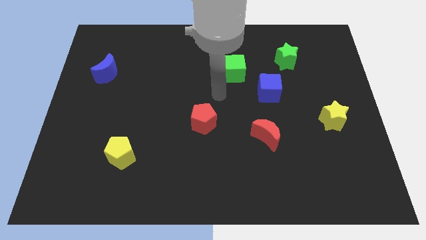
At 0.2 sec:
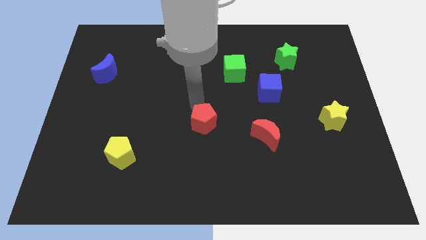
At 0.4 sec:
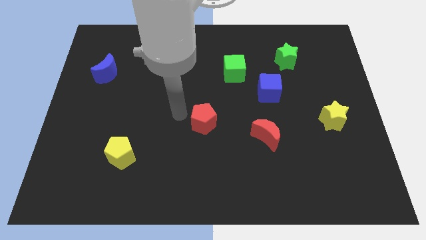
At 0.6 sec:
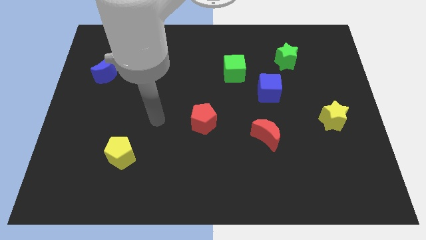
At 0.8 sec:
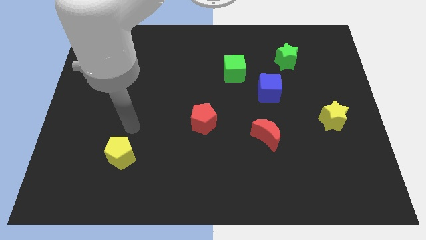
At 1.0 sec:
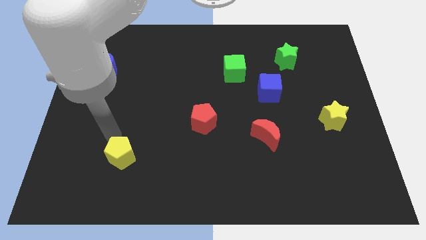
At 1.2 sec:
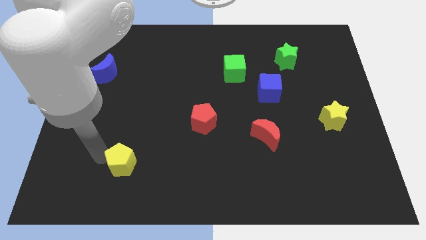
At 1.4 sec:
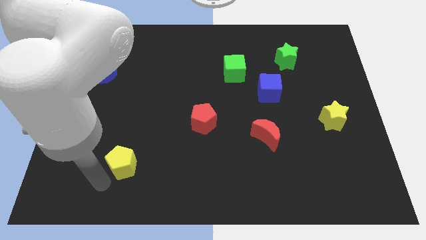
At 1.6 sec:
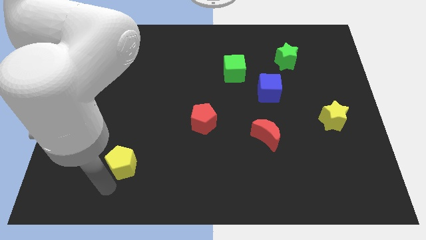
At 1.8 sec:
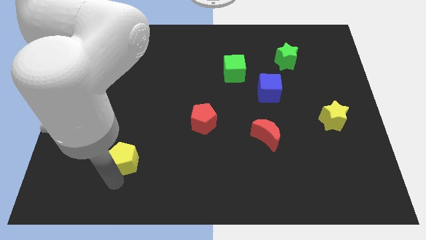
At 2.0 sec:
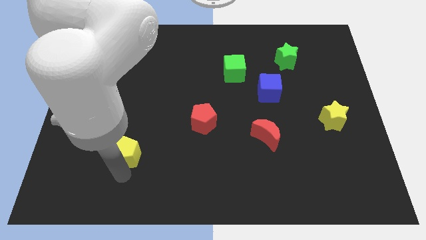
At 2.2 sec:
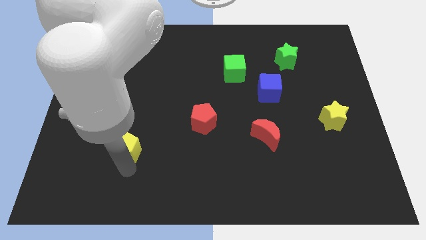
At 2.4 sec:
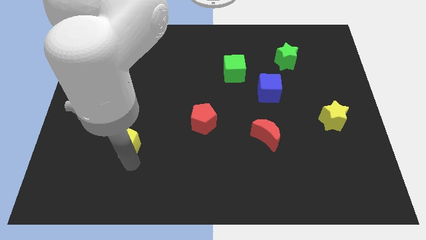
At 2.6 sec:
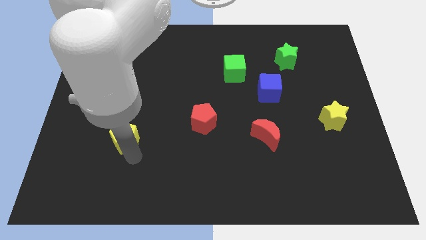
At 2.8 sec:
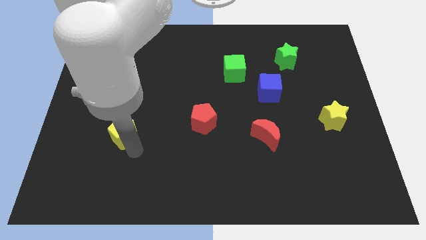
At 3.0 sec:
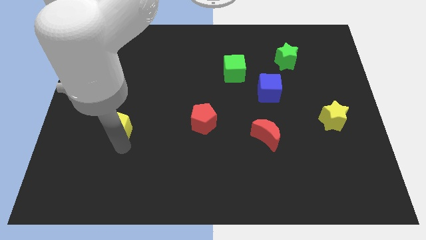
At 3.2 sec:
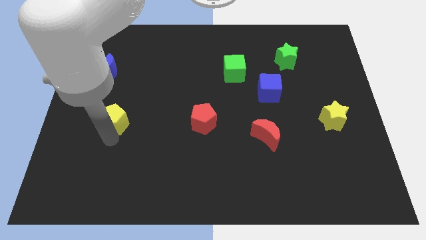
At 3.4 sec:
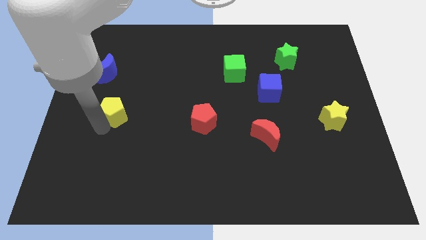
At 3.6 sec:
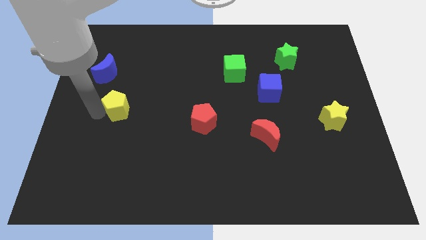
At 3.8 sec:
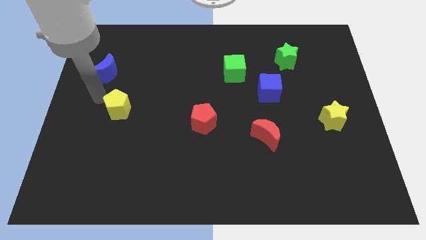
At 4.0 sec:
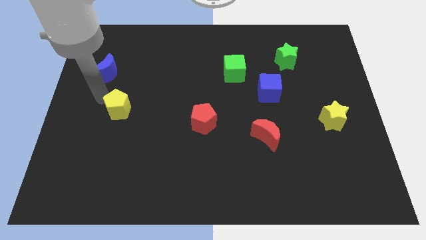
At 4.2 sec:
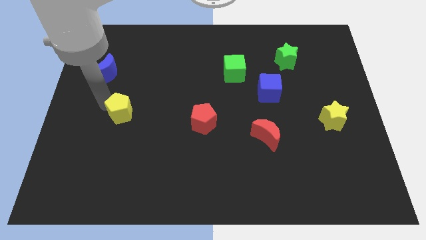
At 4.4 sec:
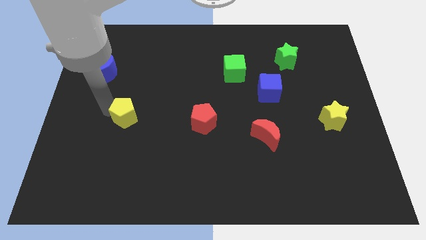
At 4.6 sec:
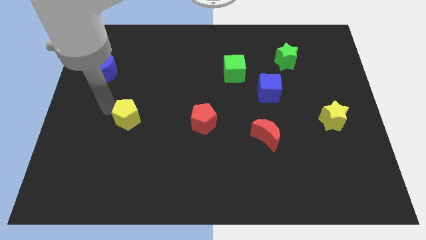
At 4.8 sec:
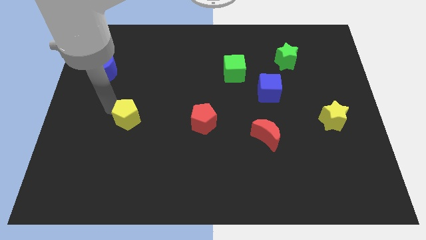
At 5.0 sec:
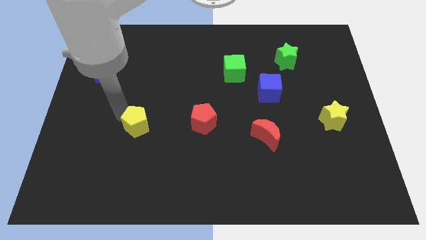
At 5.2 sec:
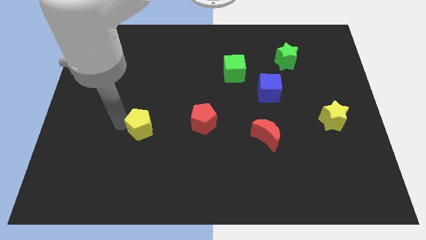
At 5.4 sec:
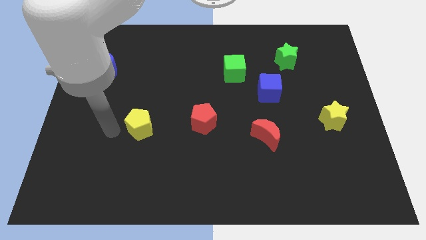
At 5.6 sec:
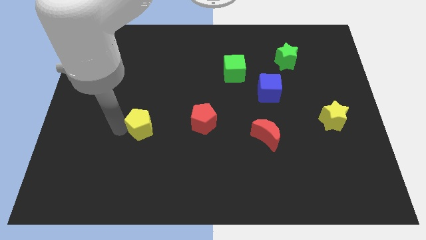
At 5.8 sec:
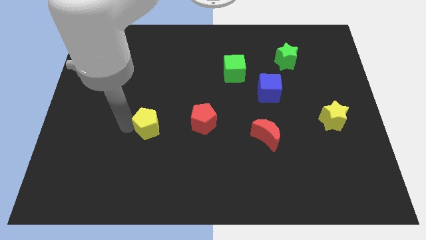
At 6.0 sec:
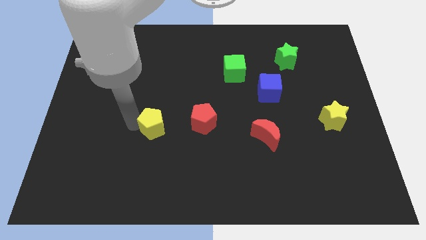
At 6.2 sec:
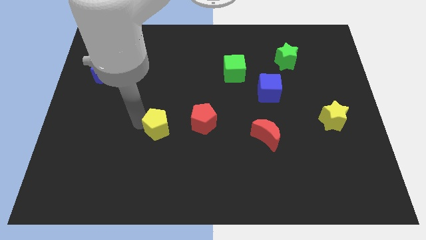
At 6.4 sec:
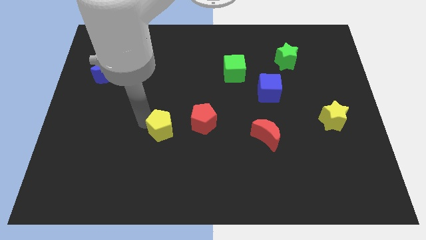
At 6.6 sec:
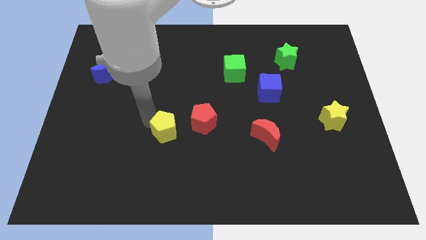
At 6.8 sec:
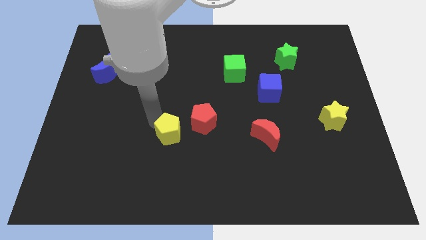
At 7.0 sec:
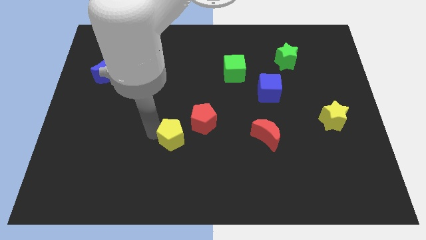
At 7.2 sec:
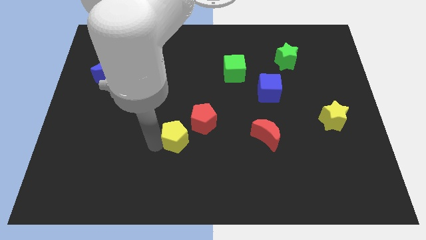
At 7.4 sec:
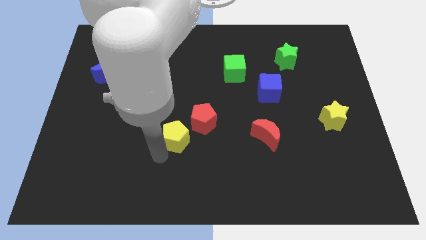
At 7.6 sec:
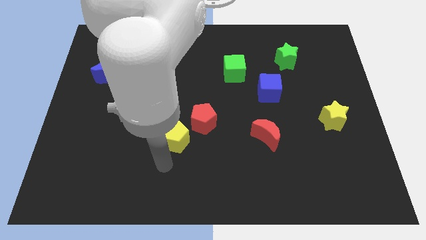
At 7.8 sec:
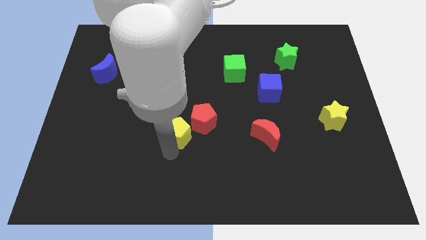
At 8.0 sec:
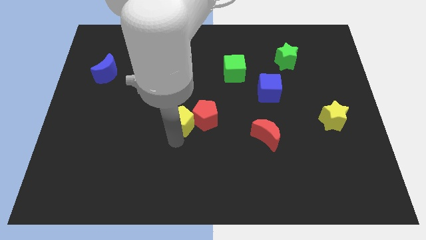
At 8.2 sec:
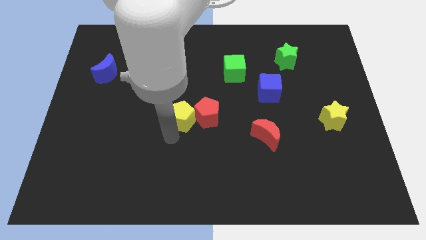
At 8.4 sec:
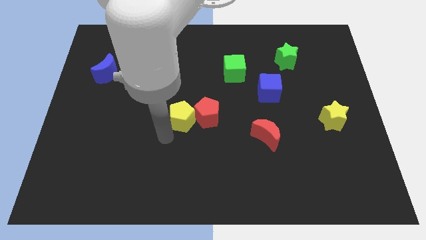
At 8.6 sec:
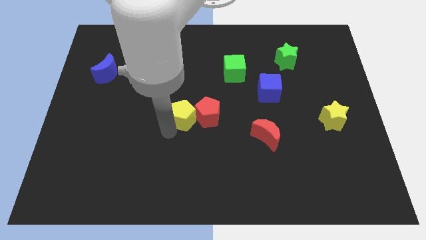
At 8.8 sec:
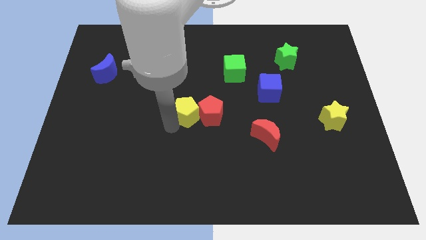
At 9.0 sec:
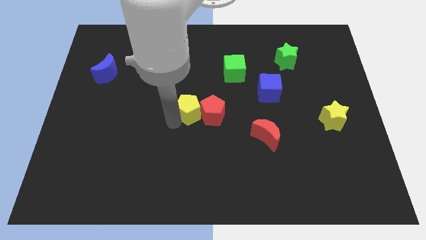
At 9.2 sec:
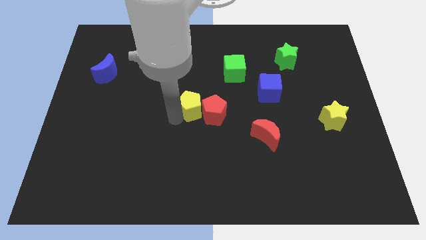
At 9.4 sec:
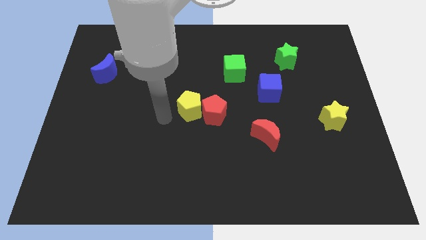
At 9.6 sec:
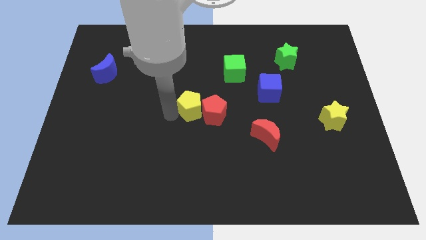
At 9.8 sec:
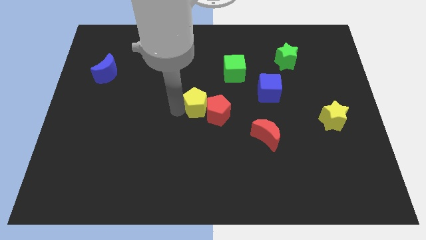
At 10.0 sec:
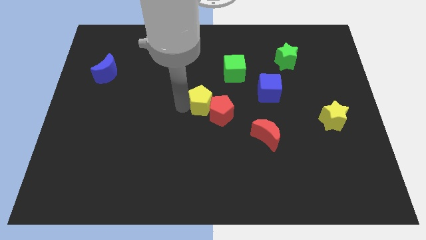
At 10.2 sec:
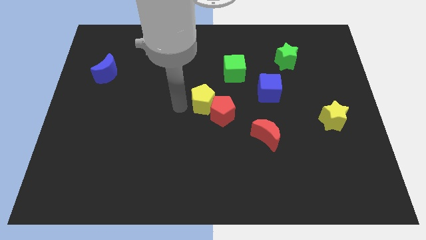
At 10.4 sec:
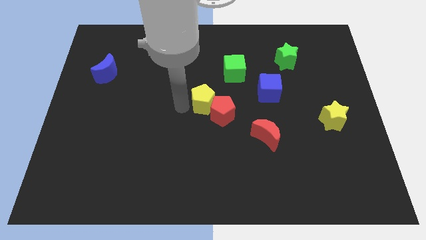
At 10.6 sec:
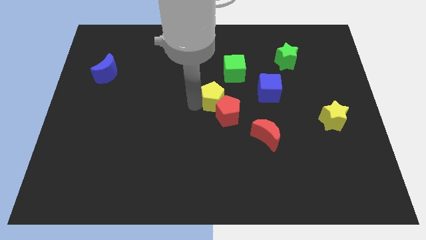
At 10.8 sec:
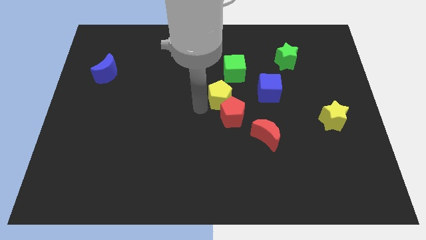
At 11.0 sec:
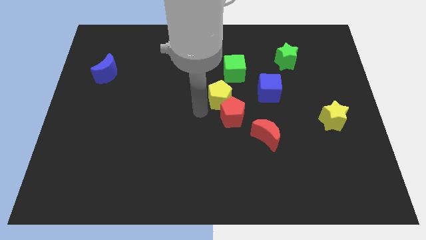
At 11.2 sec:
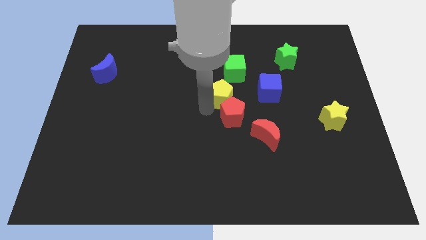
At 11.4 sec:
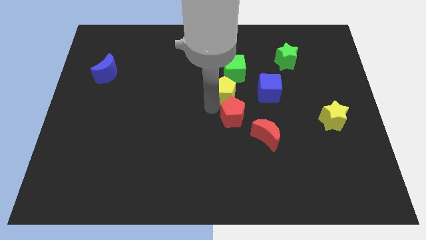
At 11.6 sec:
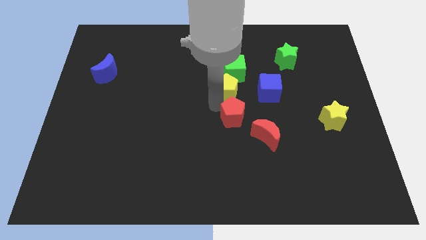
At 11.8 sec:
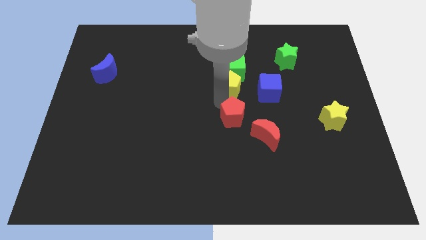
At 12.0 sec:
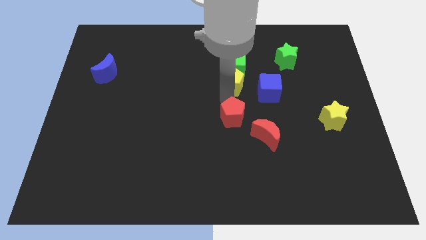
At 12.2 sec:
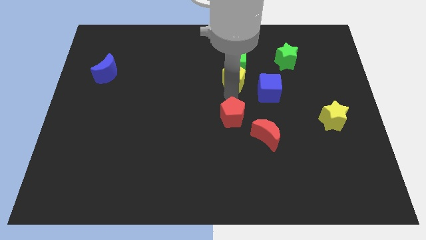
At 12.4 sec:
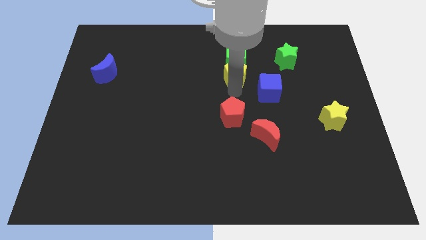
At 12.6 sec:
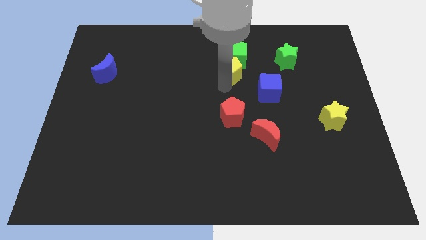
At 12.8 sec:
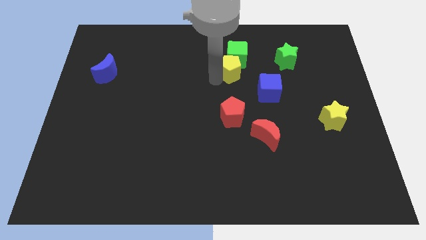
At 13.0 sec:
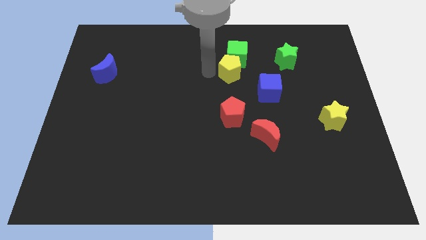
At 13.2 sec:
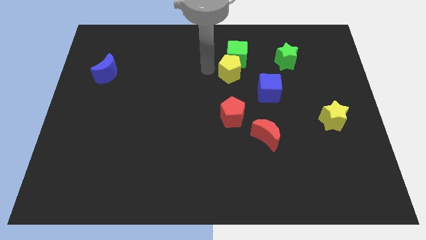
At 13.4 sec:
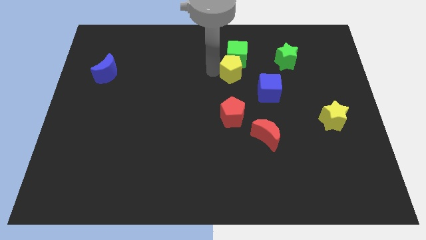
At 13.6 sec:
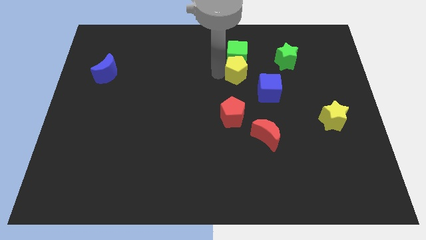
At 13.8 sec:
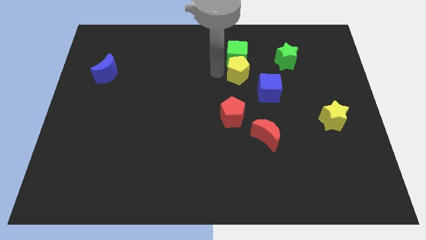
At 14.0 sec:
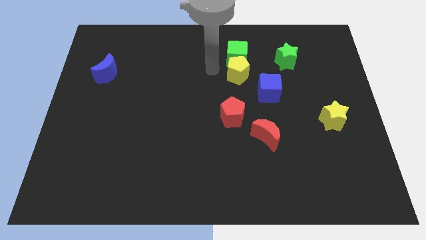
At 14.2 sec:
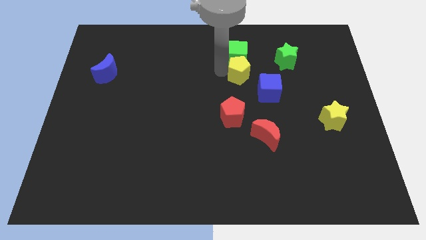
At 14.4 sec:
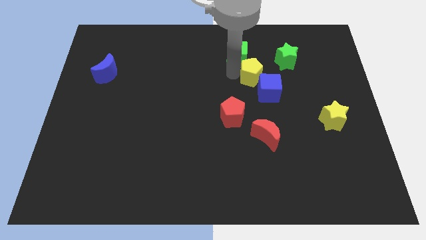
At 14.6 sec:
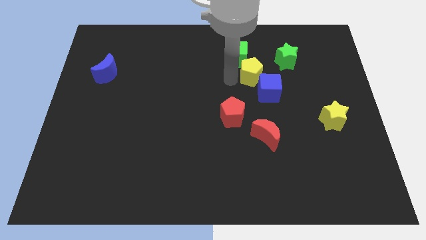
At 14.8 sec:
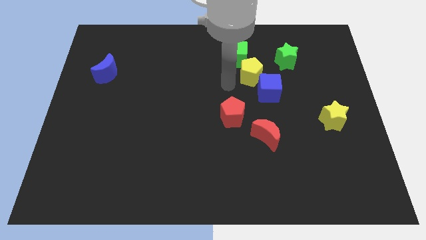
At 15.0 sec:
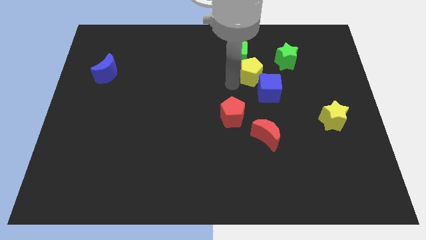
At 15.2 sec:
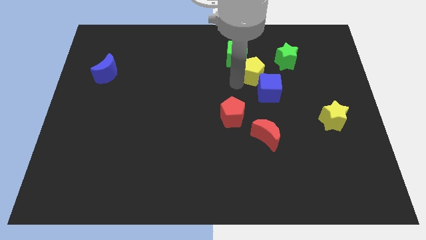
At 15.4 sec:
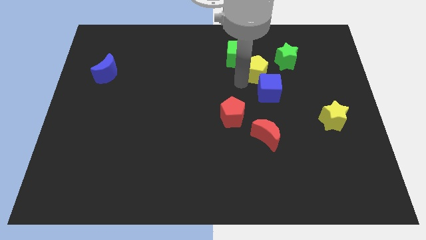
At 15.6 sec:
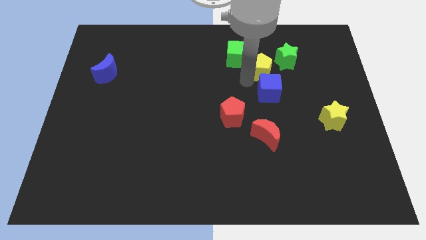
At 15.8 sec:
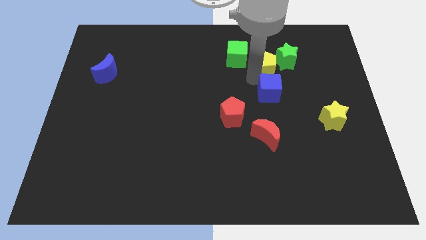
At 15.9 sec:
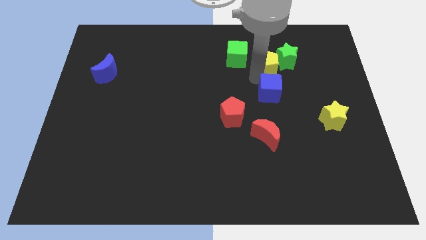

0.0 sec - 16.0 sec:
put the yellow pentagon towards the green star
